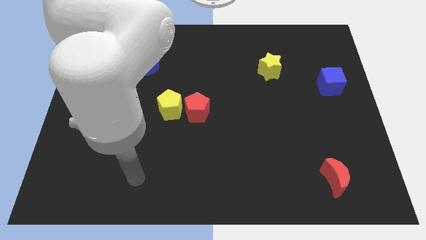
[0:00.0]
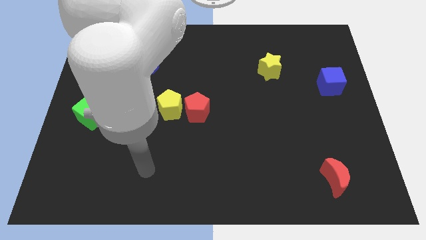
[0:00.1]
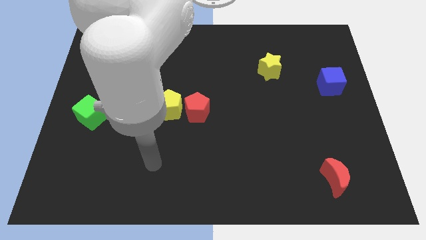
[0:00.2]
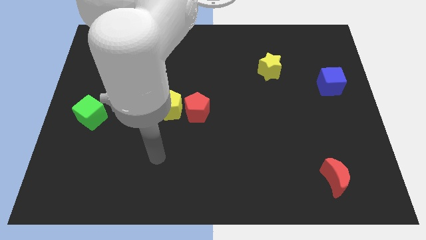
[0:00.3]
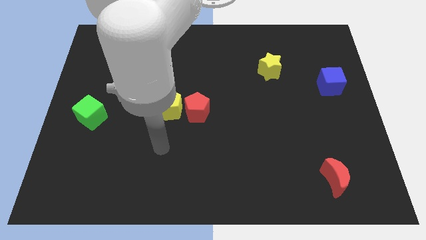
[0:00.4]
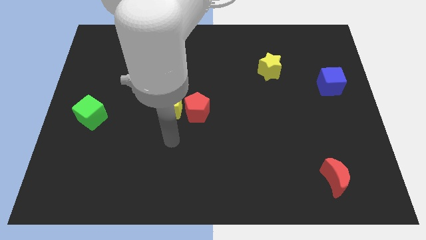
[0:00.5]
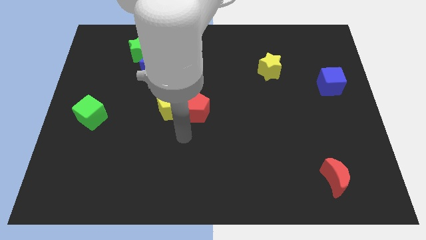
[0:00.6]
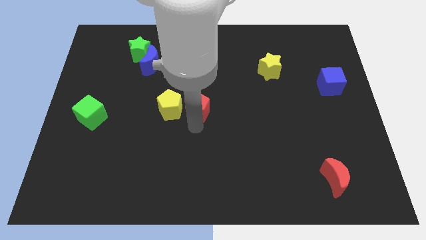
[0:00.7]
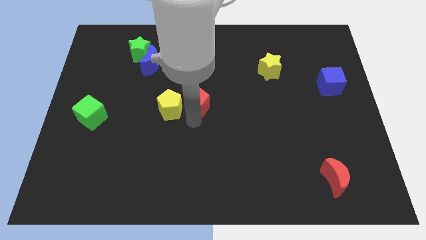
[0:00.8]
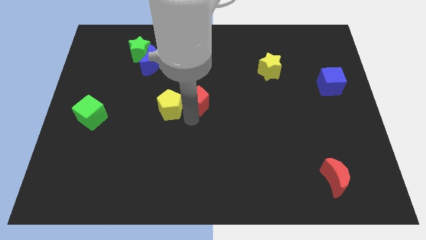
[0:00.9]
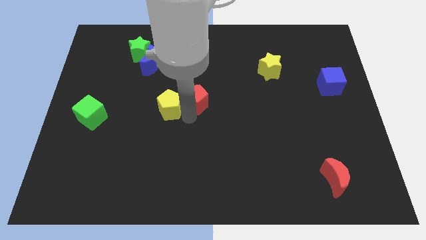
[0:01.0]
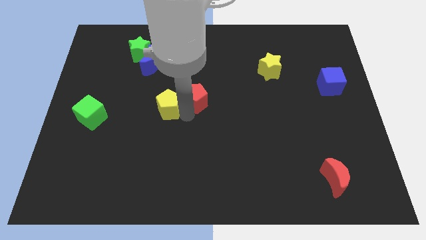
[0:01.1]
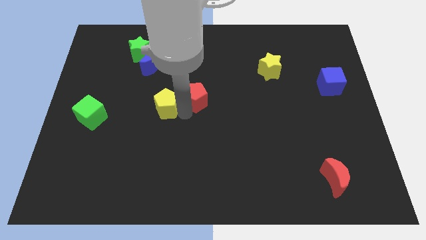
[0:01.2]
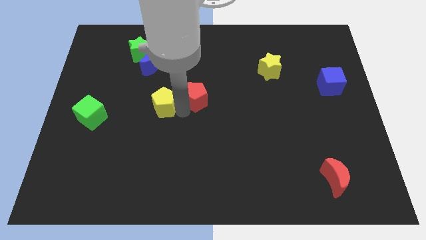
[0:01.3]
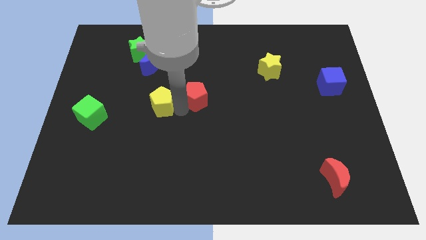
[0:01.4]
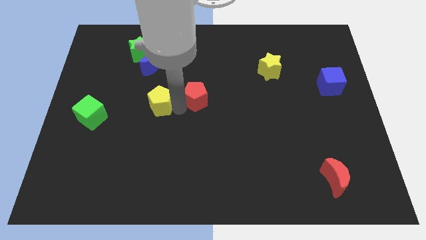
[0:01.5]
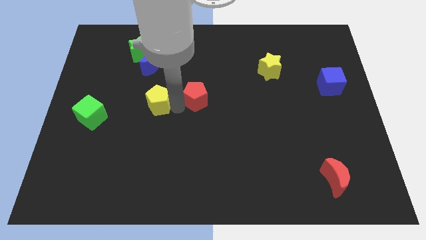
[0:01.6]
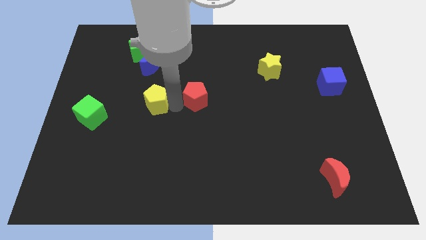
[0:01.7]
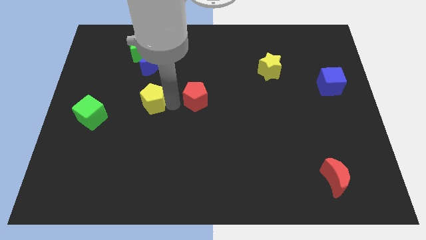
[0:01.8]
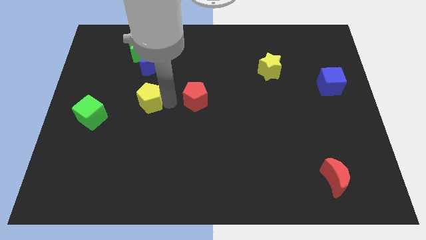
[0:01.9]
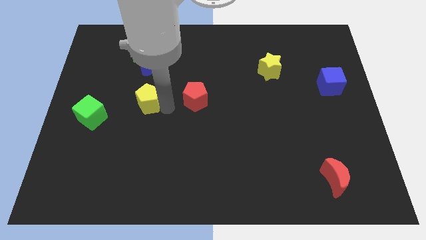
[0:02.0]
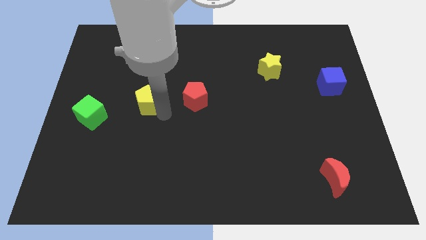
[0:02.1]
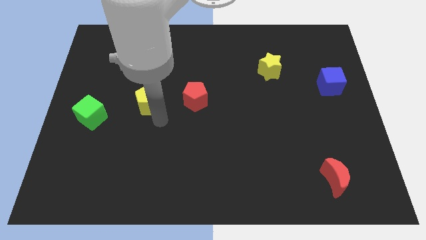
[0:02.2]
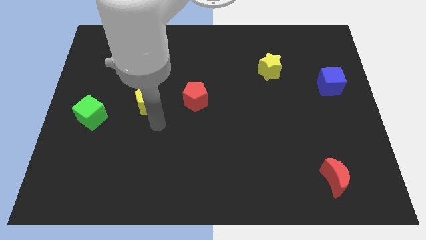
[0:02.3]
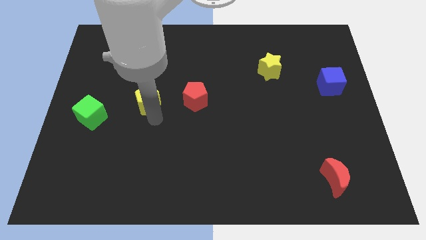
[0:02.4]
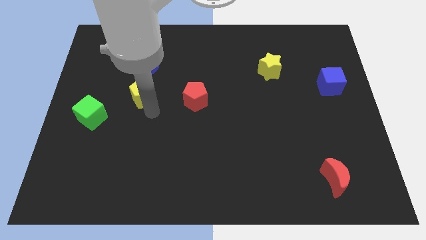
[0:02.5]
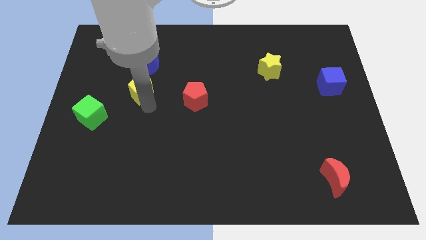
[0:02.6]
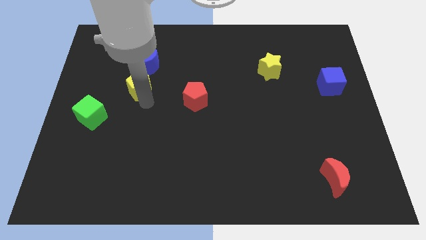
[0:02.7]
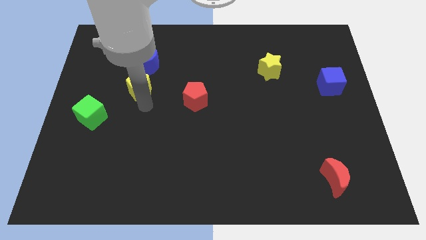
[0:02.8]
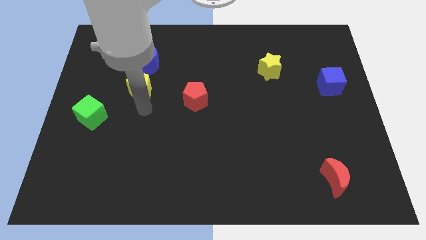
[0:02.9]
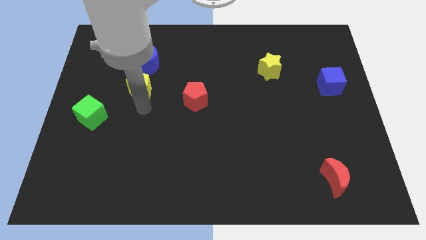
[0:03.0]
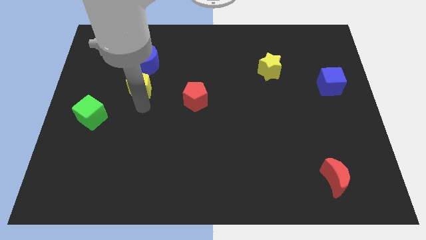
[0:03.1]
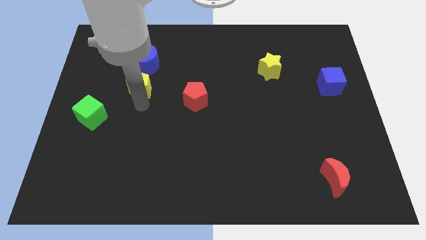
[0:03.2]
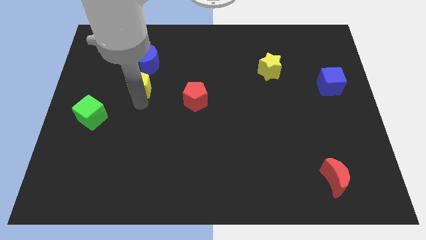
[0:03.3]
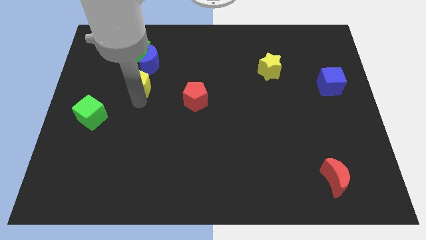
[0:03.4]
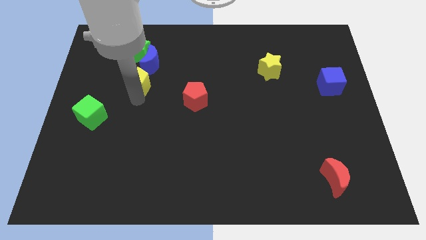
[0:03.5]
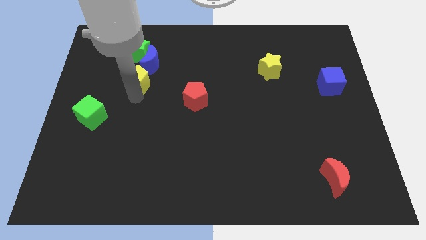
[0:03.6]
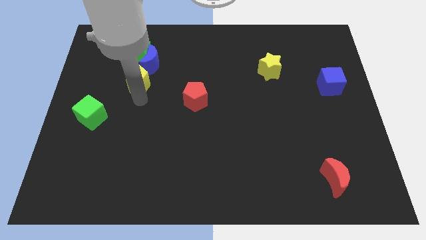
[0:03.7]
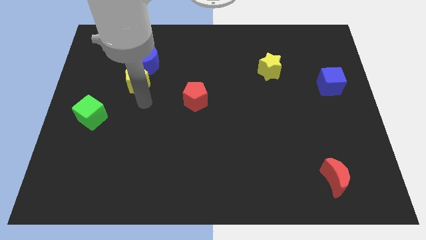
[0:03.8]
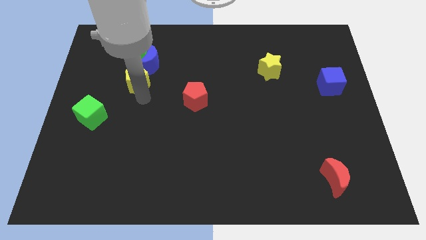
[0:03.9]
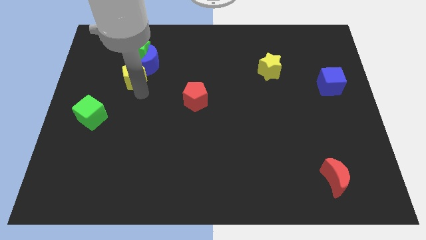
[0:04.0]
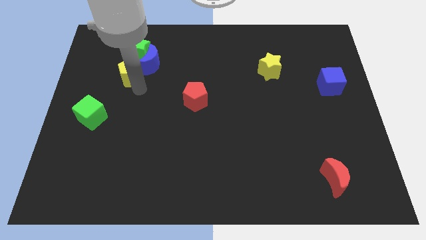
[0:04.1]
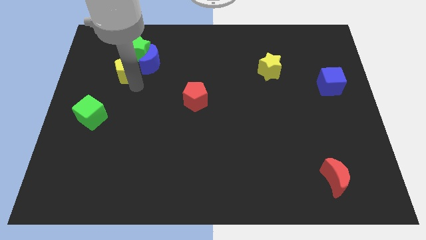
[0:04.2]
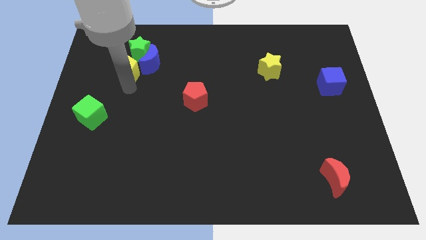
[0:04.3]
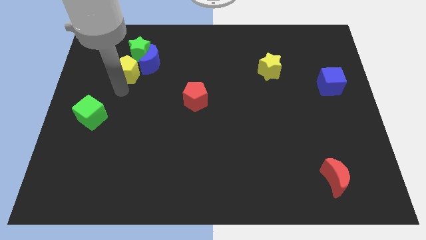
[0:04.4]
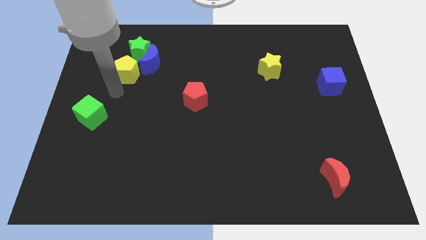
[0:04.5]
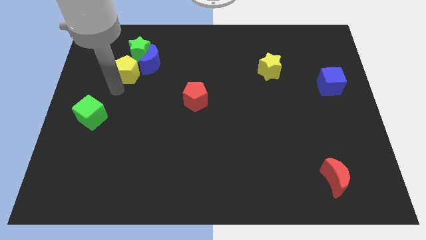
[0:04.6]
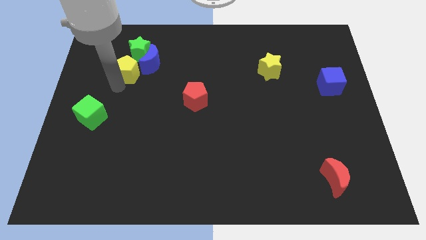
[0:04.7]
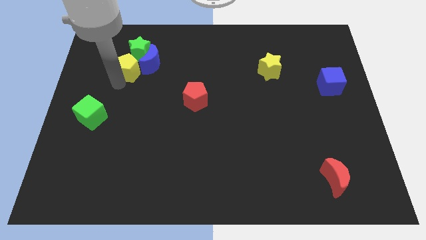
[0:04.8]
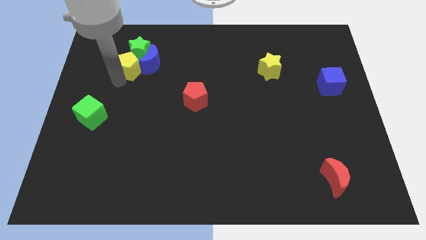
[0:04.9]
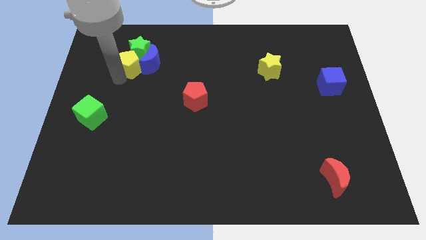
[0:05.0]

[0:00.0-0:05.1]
slide the yellow pentagon towards the green star

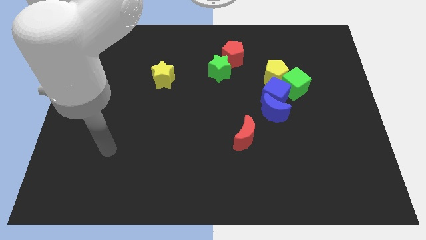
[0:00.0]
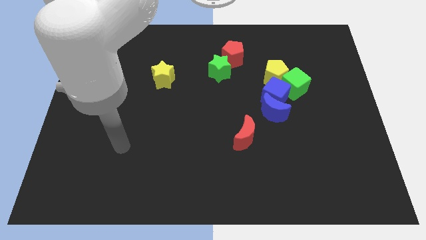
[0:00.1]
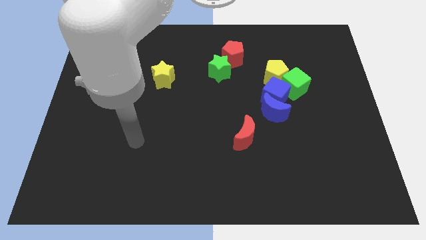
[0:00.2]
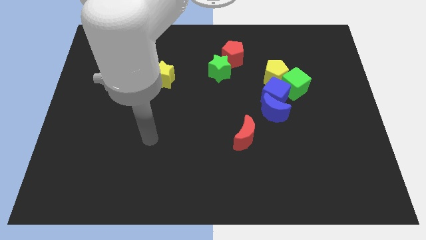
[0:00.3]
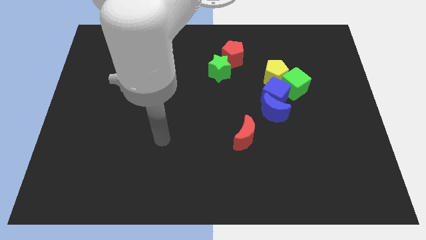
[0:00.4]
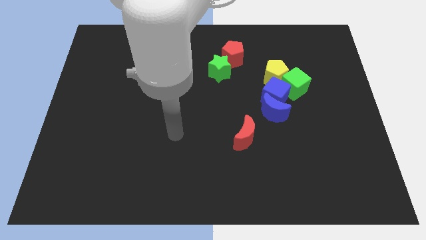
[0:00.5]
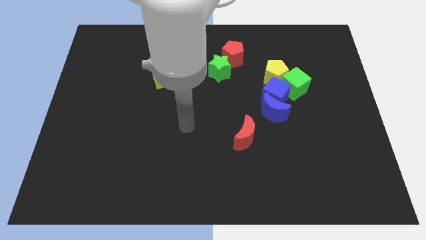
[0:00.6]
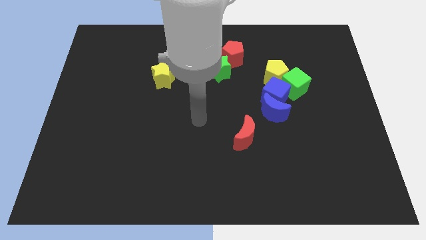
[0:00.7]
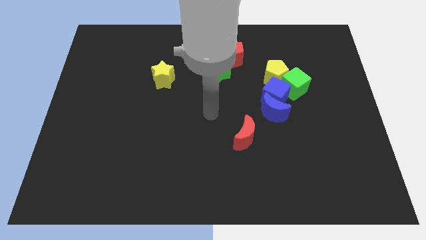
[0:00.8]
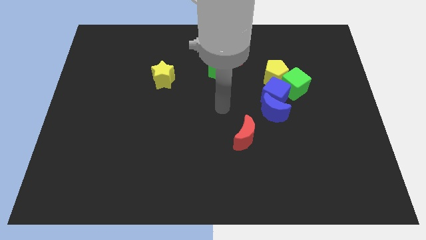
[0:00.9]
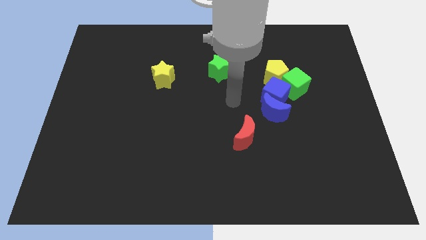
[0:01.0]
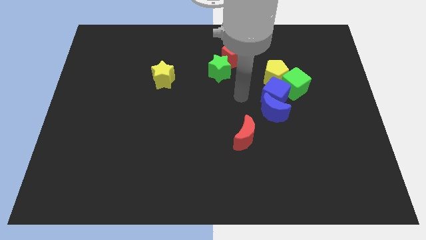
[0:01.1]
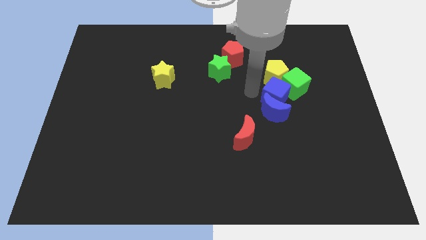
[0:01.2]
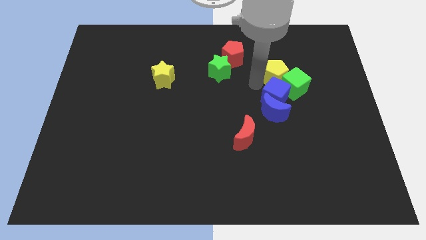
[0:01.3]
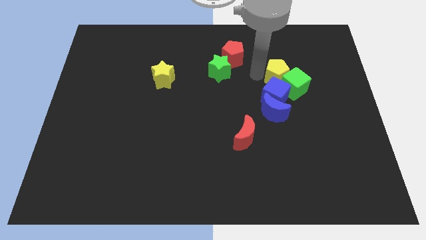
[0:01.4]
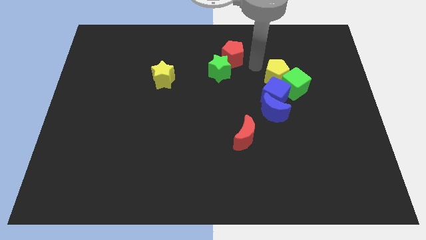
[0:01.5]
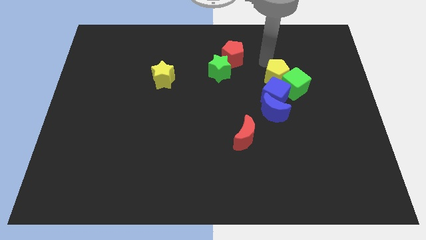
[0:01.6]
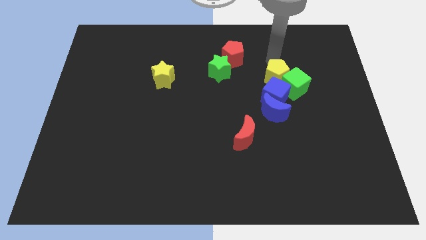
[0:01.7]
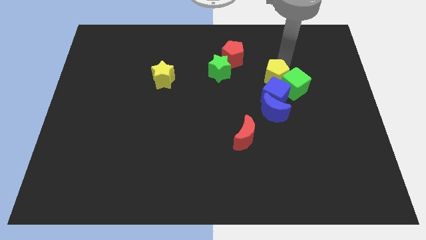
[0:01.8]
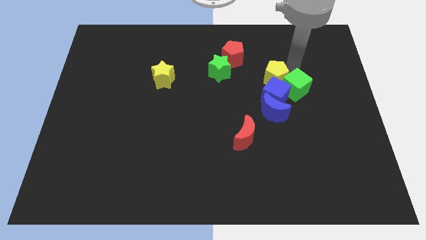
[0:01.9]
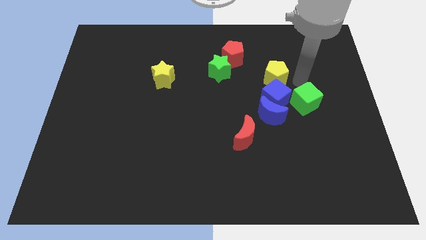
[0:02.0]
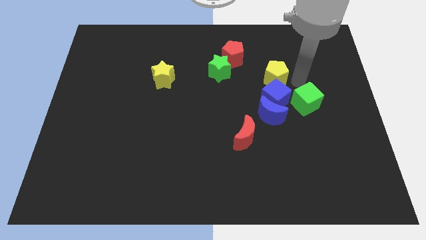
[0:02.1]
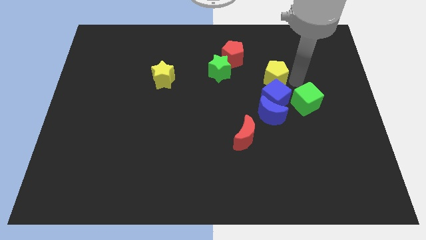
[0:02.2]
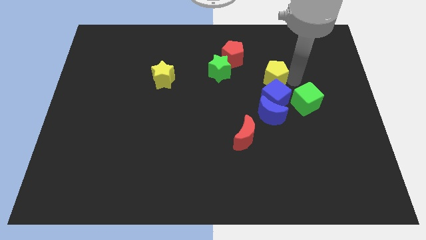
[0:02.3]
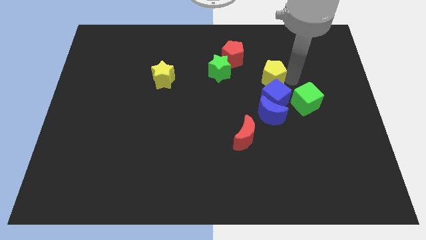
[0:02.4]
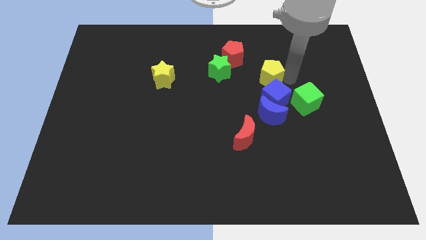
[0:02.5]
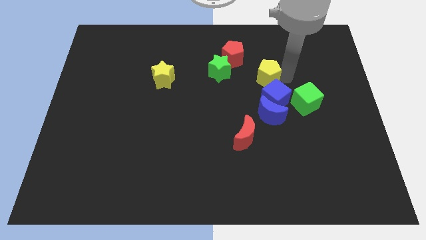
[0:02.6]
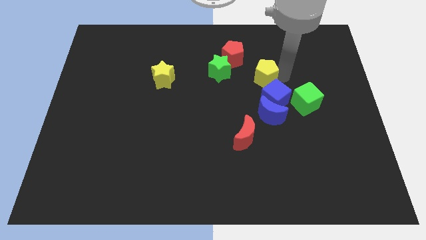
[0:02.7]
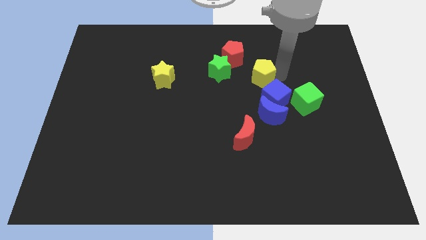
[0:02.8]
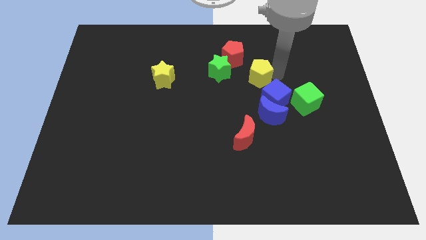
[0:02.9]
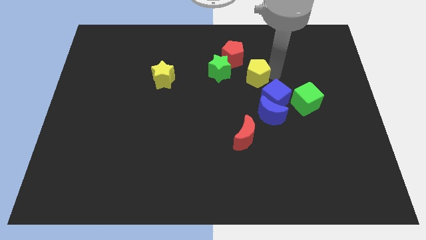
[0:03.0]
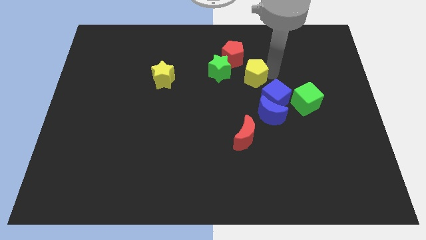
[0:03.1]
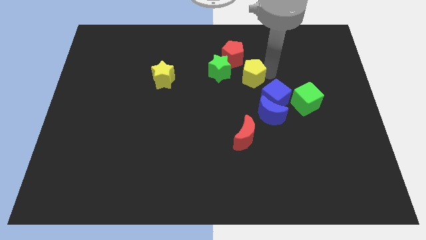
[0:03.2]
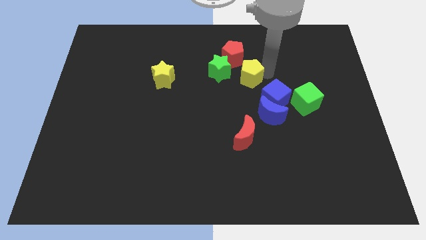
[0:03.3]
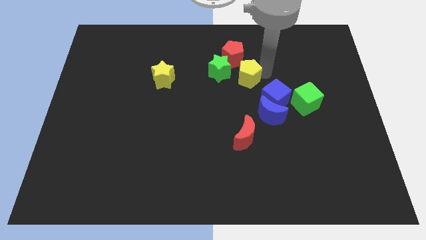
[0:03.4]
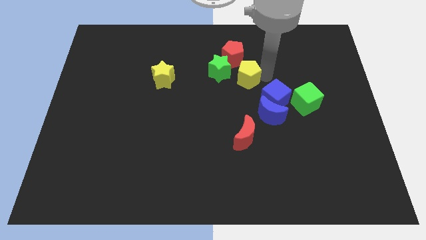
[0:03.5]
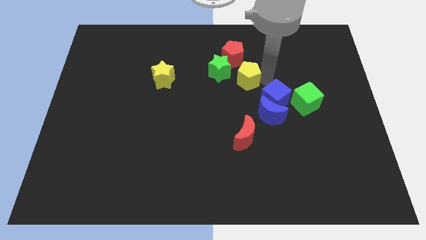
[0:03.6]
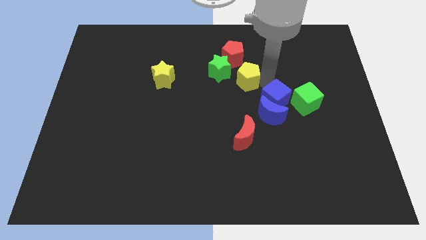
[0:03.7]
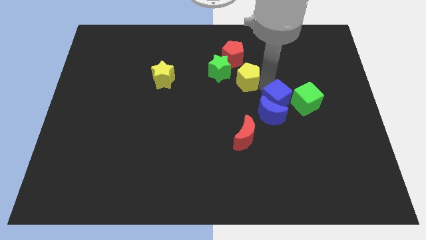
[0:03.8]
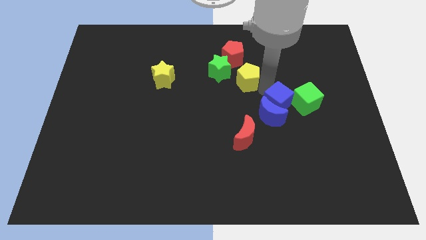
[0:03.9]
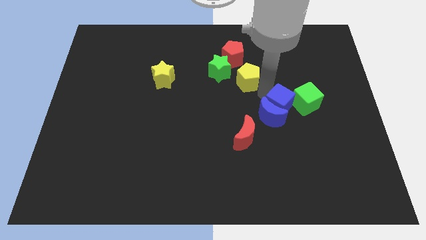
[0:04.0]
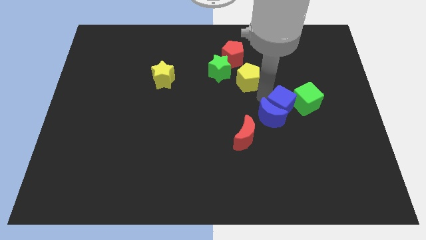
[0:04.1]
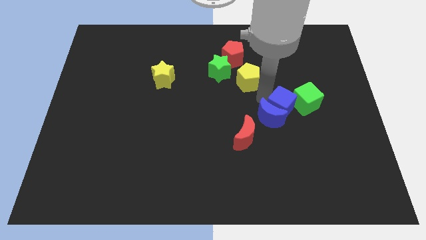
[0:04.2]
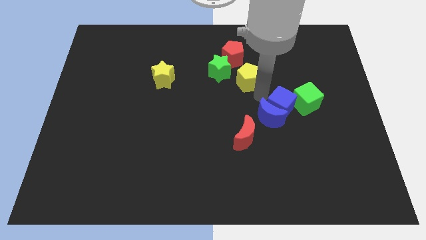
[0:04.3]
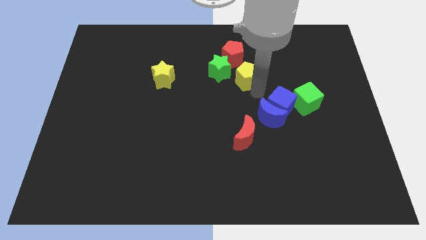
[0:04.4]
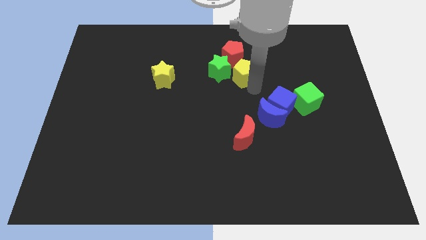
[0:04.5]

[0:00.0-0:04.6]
slide the yellow pentagon to the green star
